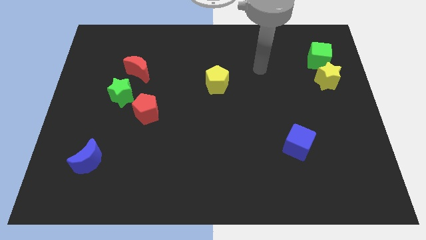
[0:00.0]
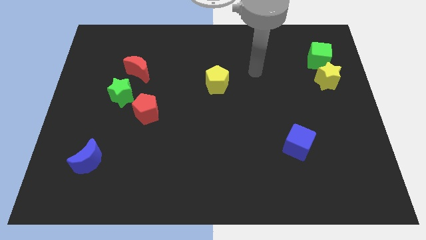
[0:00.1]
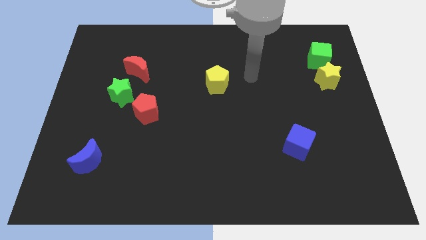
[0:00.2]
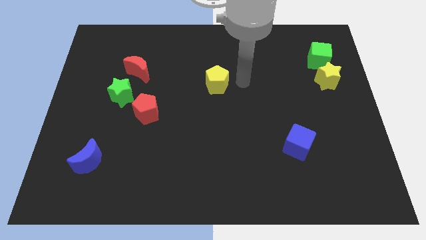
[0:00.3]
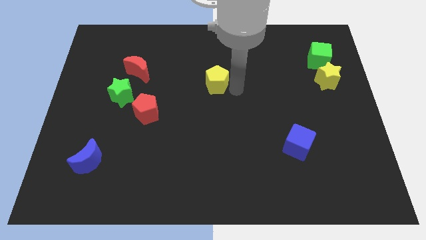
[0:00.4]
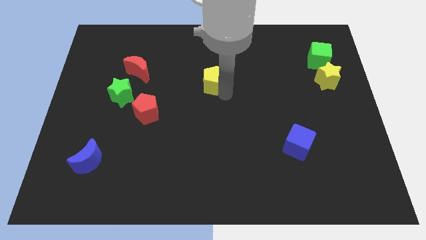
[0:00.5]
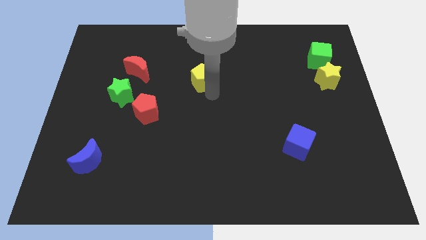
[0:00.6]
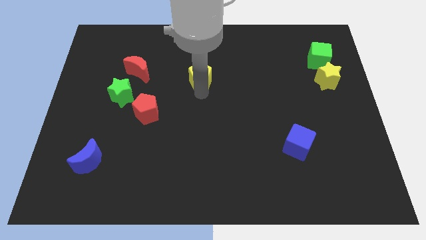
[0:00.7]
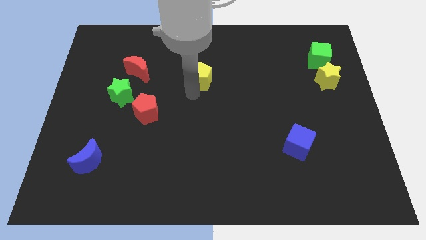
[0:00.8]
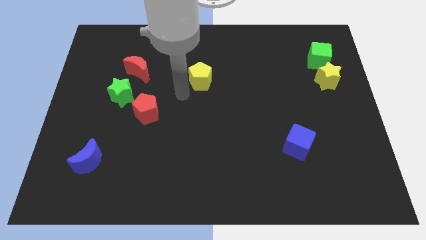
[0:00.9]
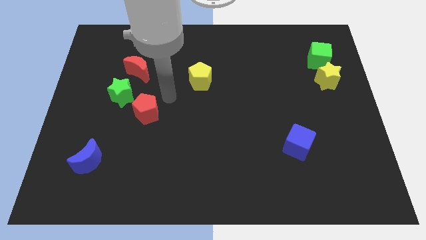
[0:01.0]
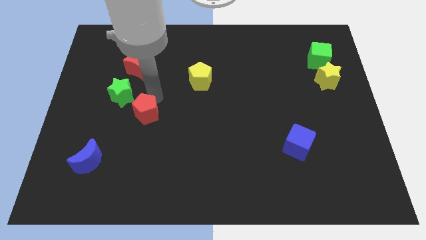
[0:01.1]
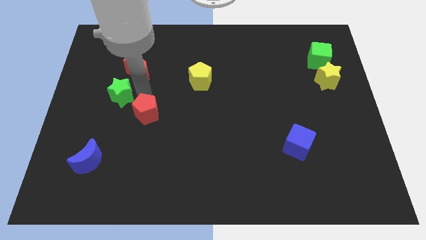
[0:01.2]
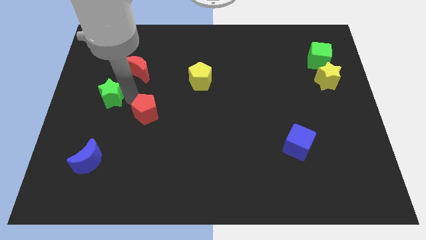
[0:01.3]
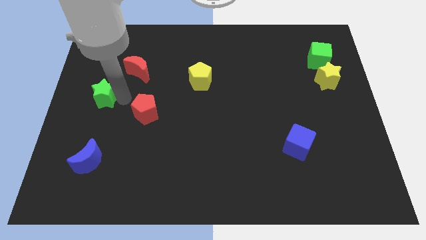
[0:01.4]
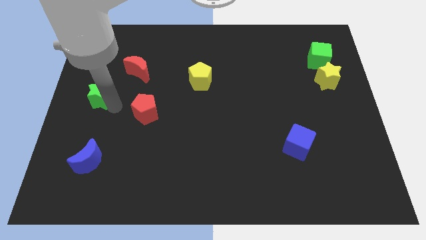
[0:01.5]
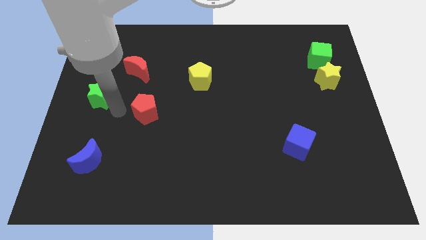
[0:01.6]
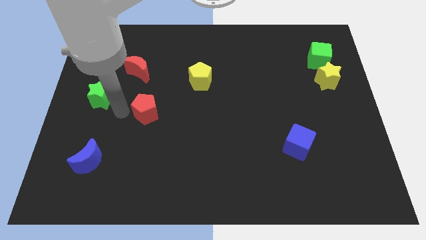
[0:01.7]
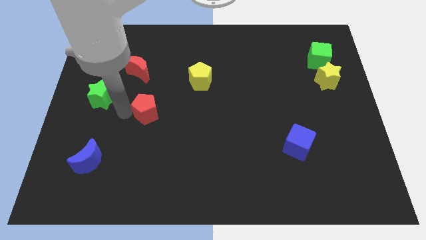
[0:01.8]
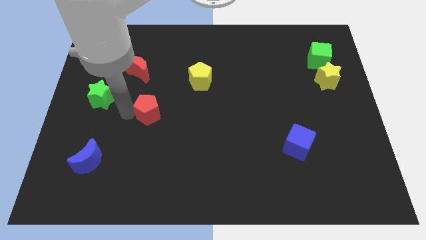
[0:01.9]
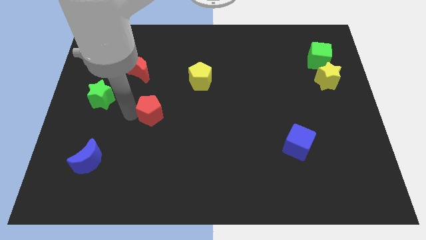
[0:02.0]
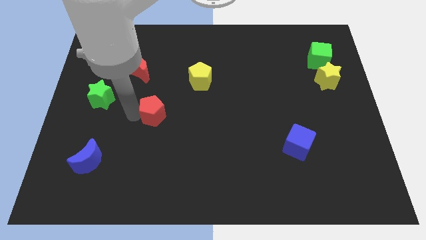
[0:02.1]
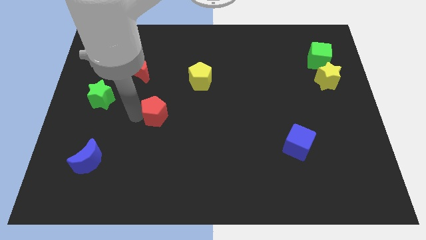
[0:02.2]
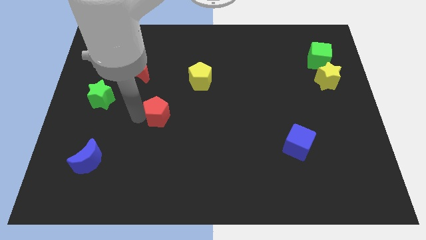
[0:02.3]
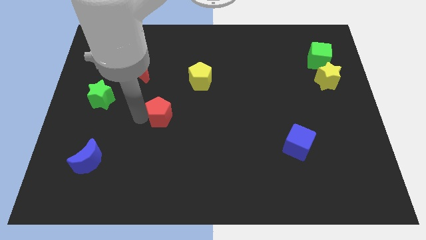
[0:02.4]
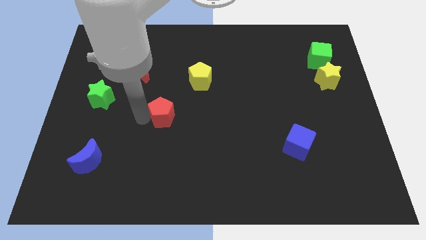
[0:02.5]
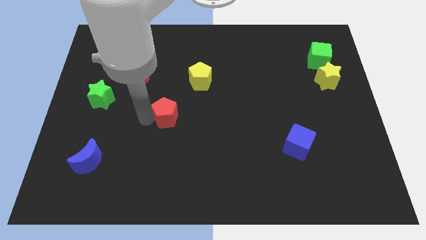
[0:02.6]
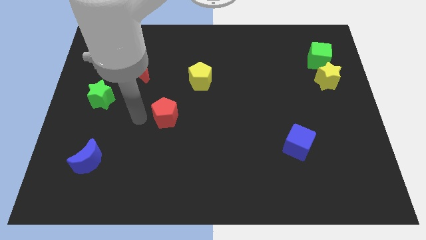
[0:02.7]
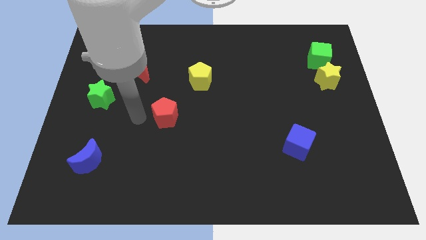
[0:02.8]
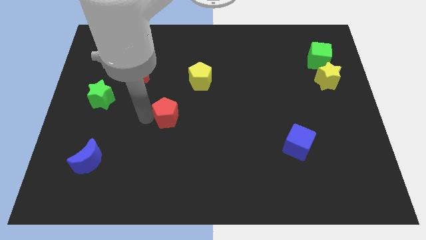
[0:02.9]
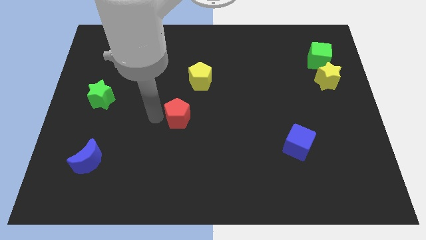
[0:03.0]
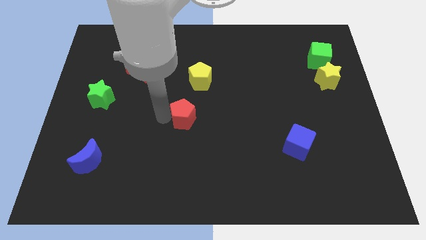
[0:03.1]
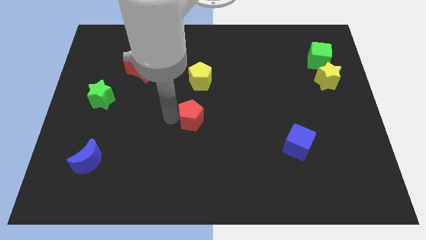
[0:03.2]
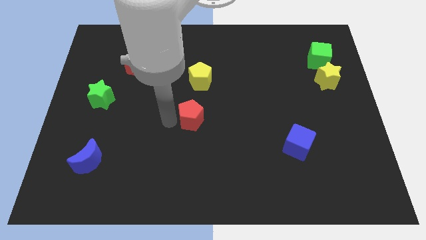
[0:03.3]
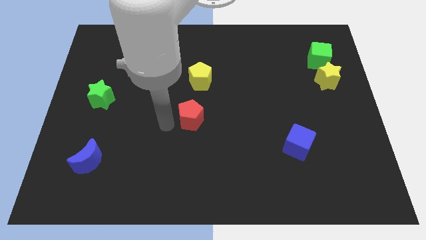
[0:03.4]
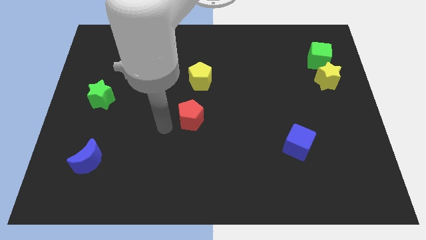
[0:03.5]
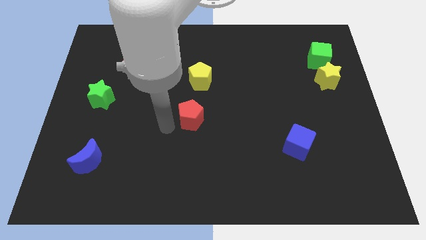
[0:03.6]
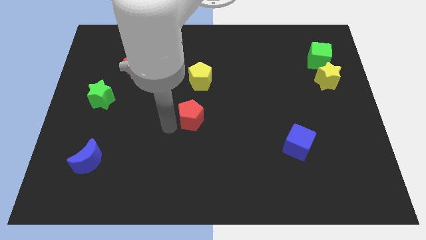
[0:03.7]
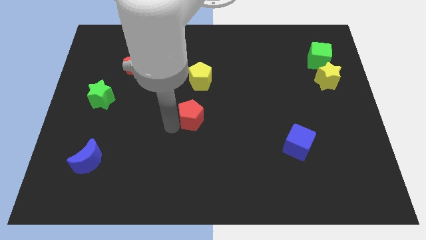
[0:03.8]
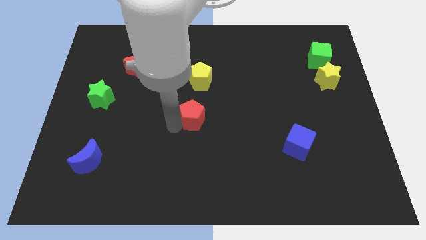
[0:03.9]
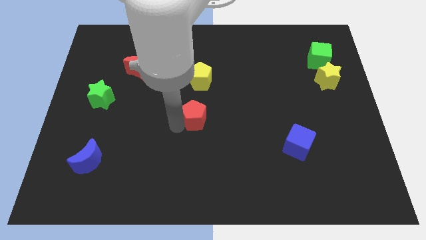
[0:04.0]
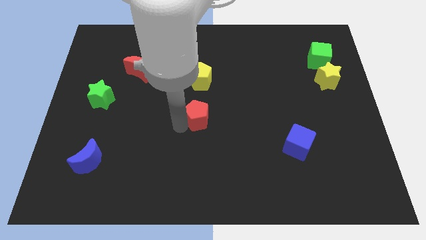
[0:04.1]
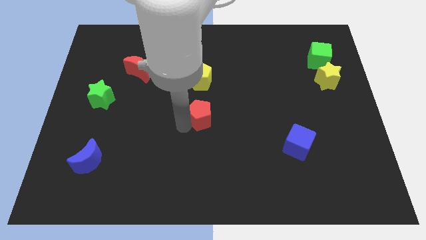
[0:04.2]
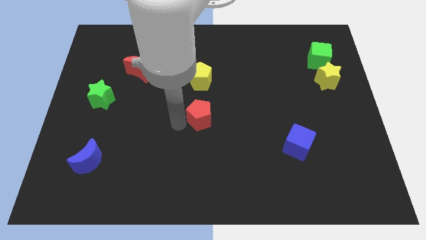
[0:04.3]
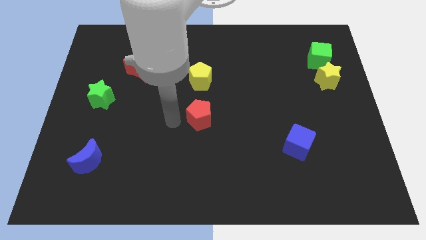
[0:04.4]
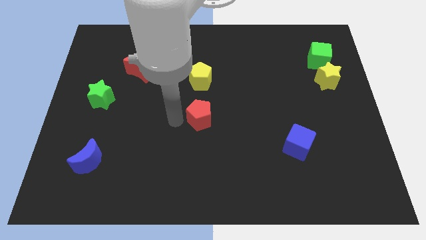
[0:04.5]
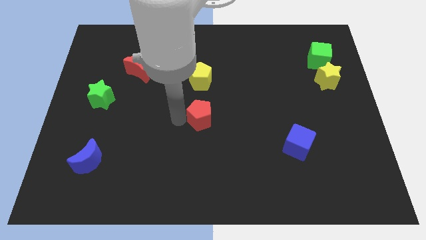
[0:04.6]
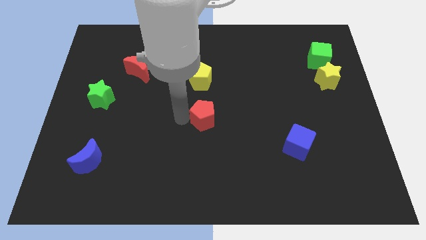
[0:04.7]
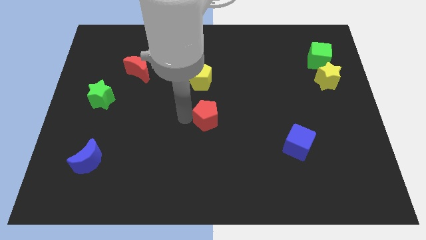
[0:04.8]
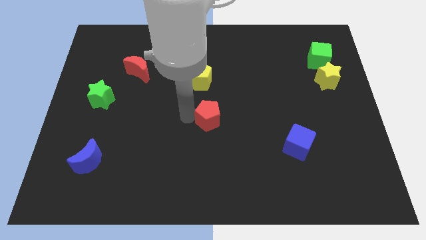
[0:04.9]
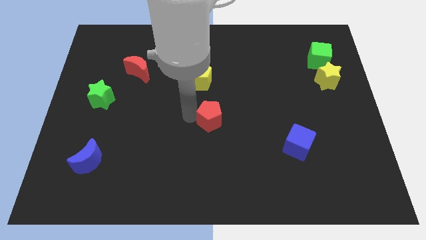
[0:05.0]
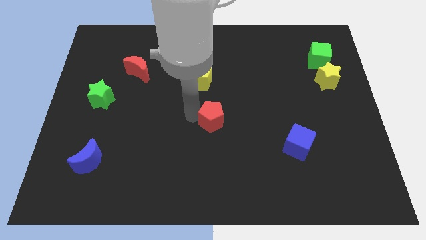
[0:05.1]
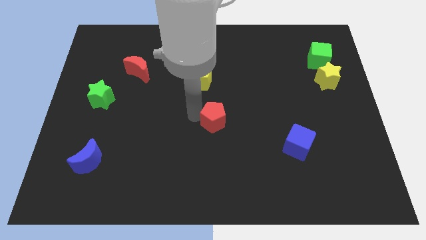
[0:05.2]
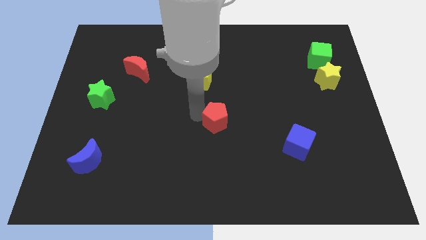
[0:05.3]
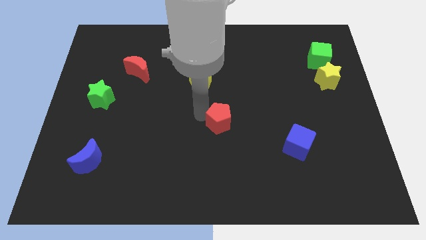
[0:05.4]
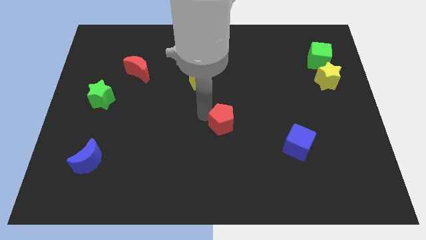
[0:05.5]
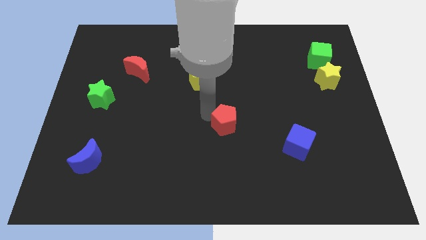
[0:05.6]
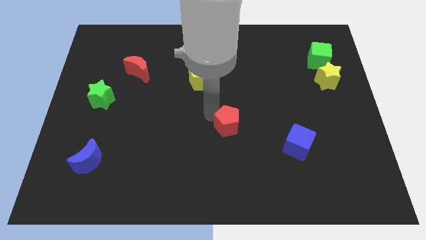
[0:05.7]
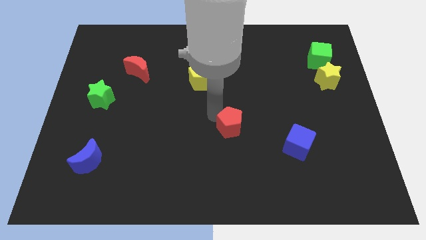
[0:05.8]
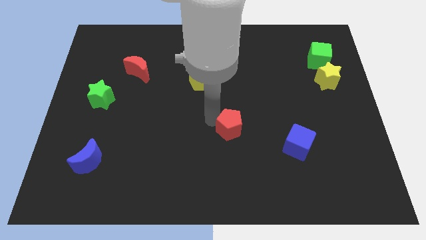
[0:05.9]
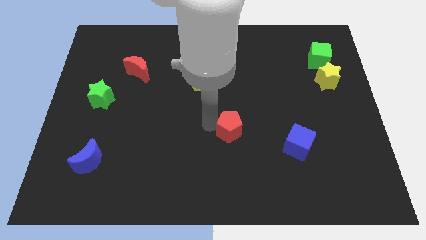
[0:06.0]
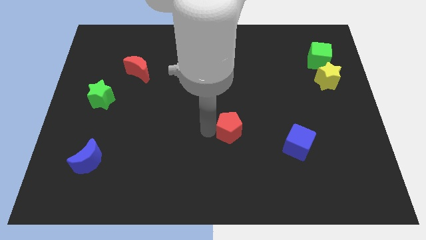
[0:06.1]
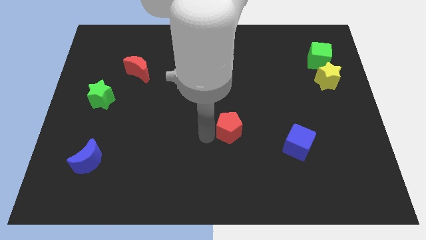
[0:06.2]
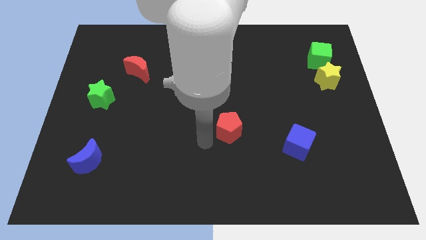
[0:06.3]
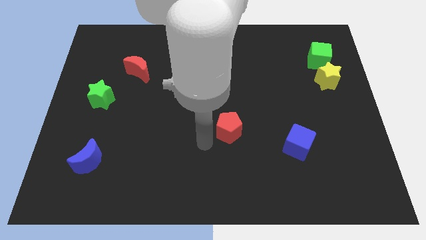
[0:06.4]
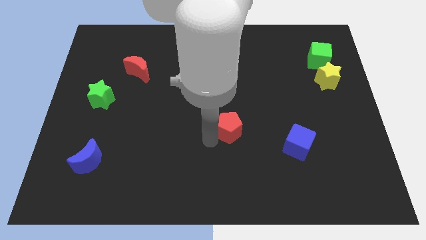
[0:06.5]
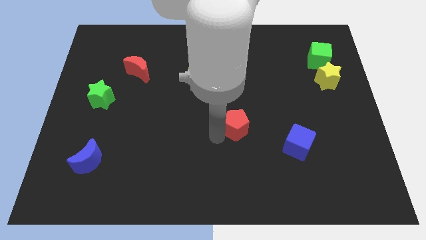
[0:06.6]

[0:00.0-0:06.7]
slide the red pentagon to the right

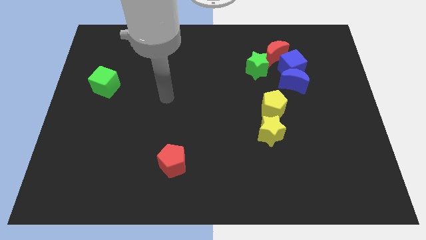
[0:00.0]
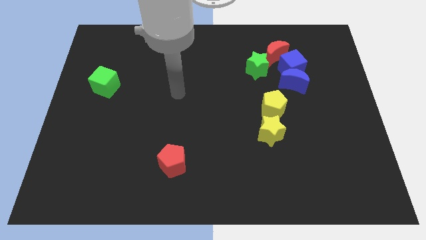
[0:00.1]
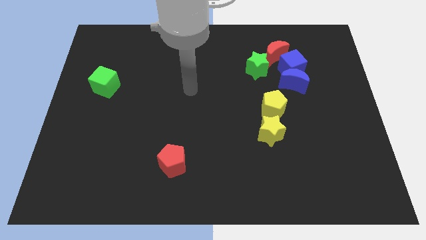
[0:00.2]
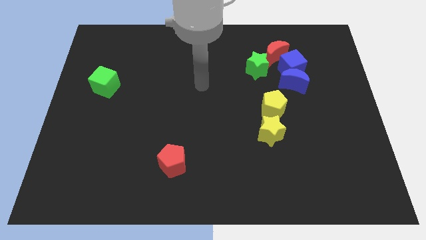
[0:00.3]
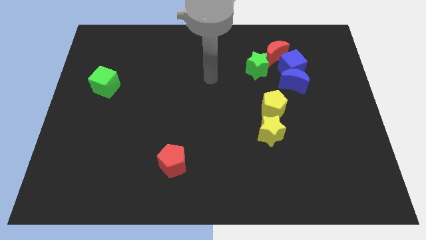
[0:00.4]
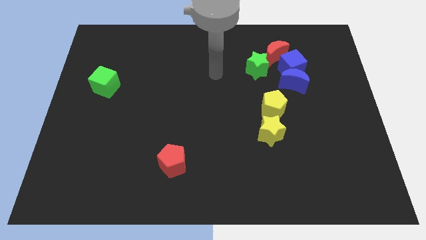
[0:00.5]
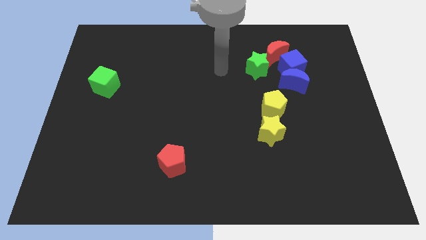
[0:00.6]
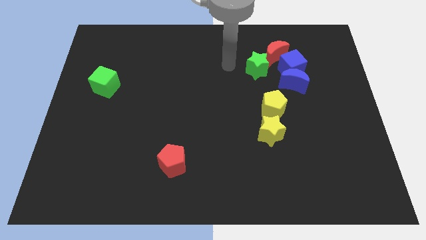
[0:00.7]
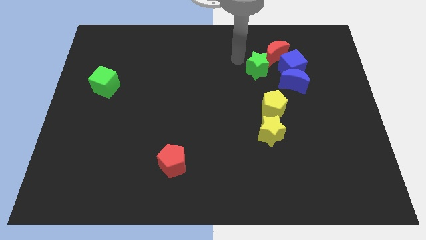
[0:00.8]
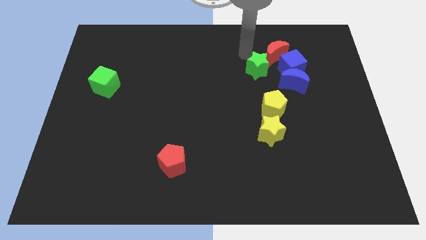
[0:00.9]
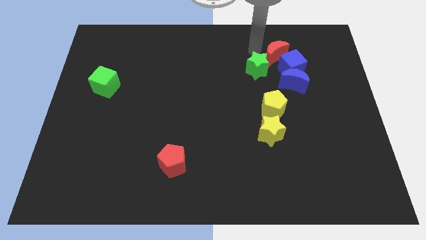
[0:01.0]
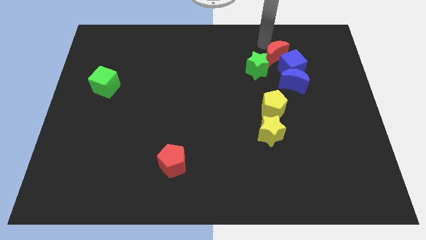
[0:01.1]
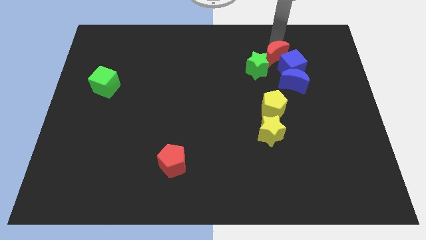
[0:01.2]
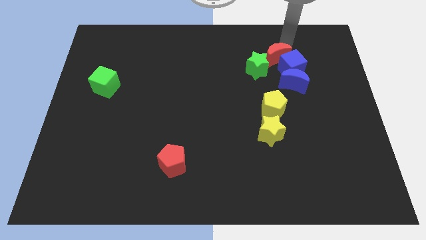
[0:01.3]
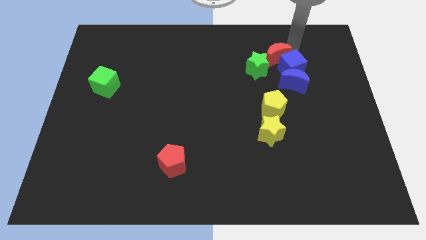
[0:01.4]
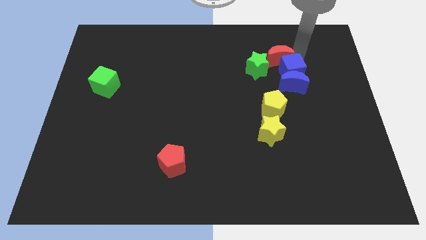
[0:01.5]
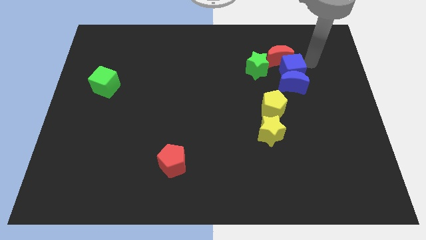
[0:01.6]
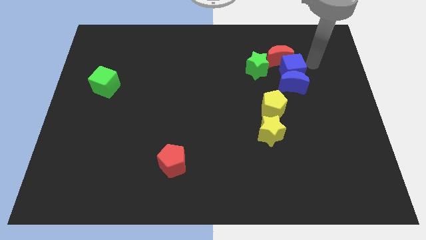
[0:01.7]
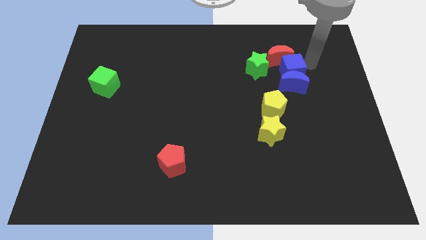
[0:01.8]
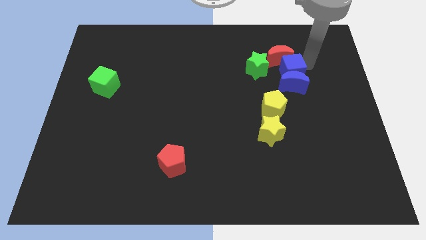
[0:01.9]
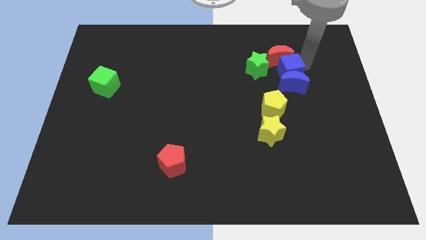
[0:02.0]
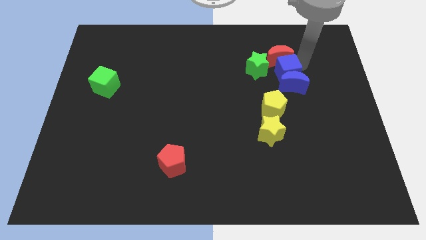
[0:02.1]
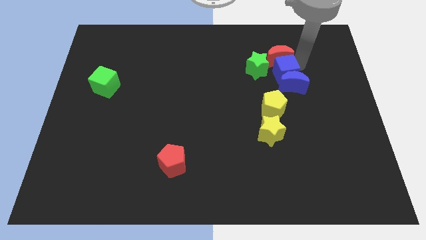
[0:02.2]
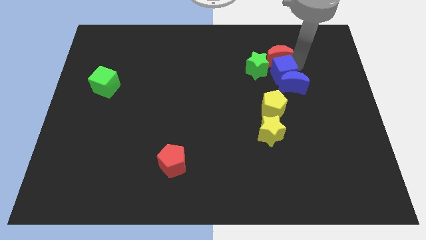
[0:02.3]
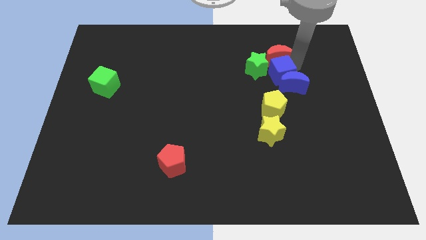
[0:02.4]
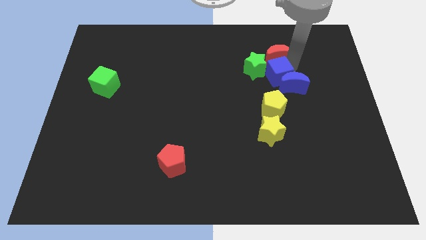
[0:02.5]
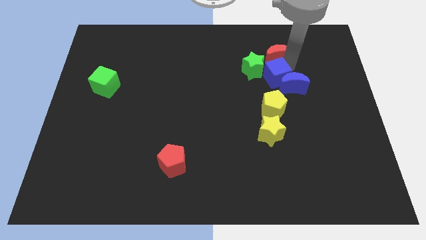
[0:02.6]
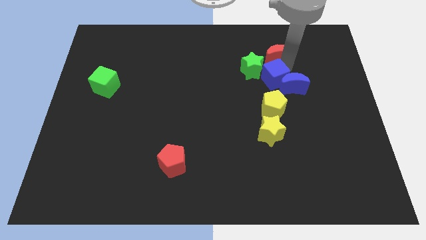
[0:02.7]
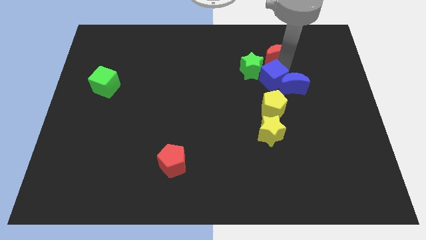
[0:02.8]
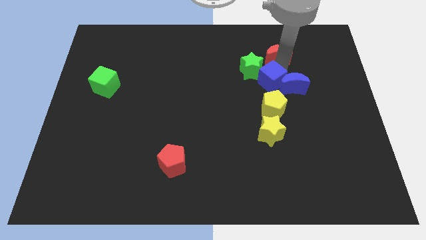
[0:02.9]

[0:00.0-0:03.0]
slightly push the blue cube down and then left
